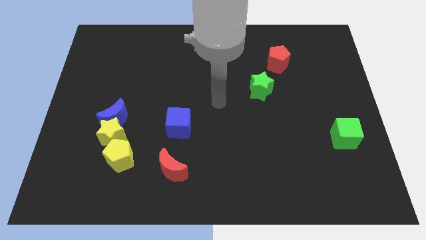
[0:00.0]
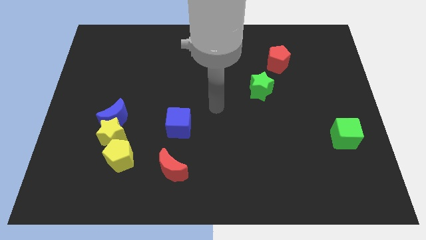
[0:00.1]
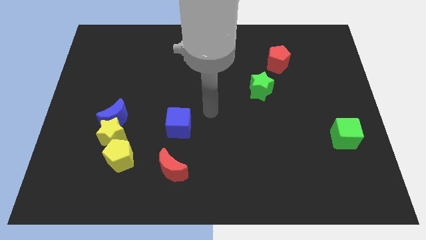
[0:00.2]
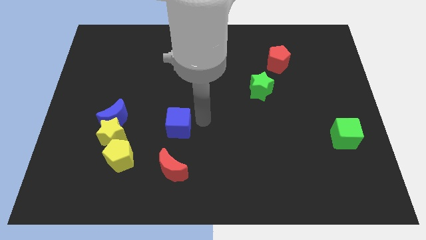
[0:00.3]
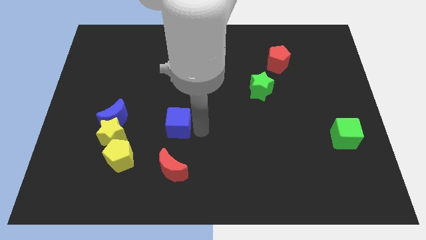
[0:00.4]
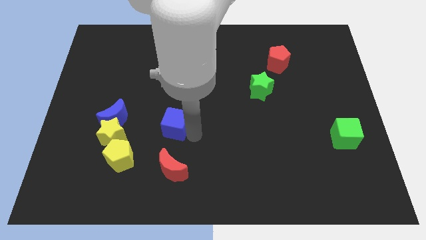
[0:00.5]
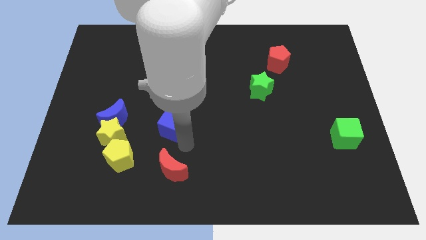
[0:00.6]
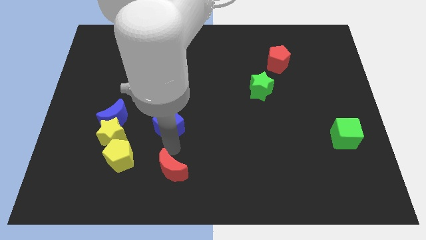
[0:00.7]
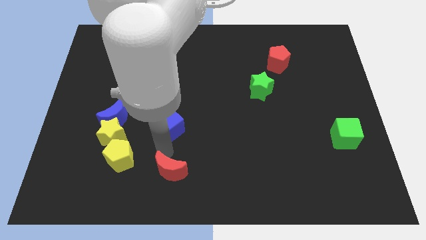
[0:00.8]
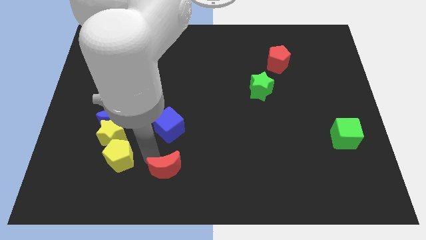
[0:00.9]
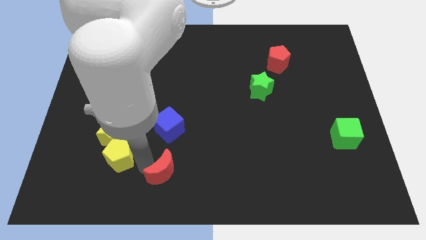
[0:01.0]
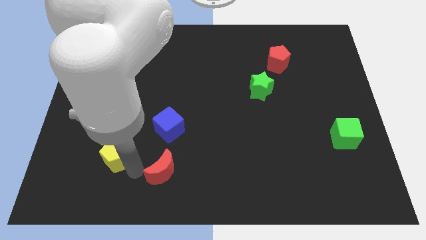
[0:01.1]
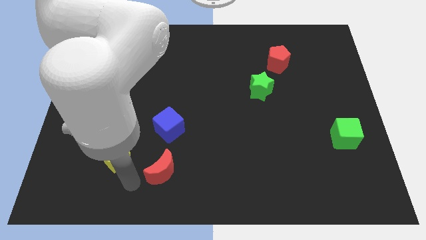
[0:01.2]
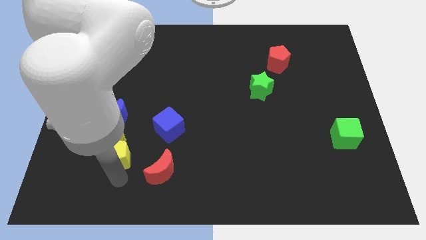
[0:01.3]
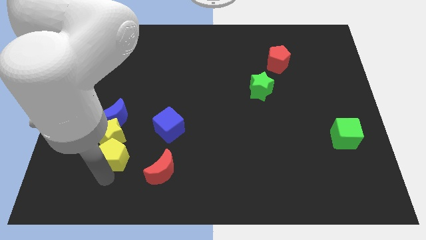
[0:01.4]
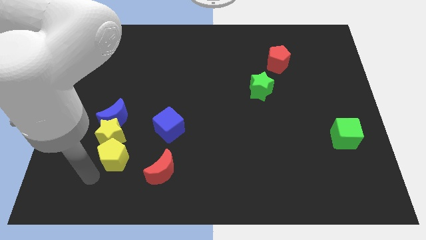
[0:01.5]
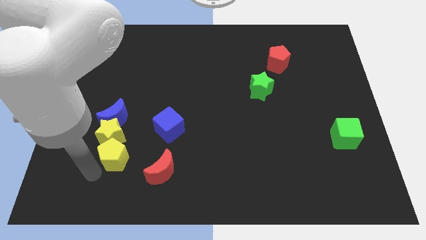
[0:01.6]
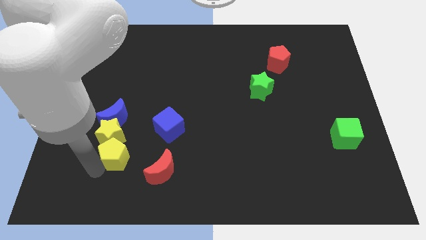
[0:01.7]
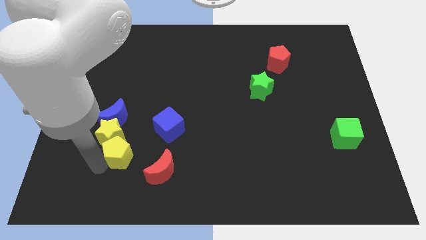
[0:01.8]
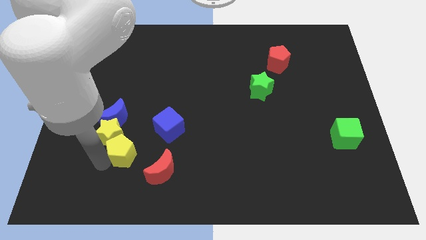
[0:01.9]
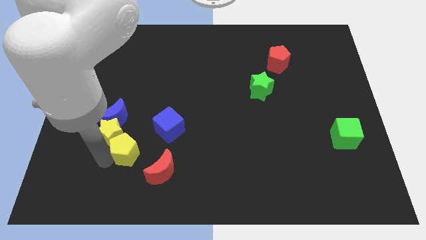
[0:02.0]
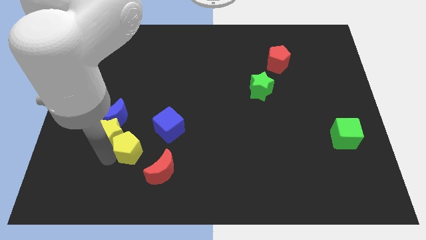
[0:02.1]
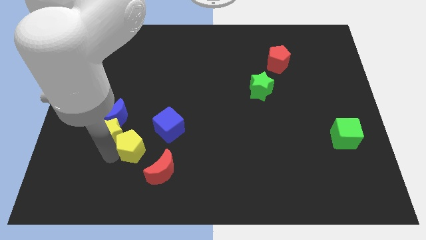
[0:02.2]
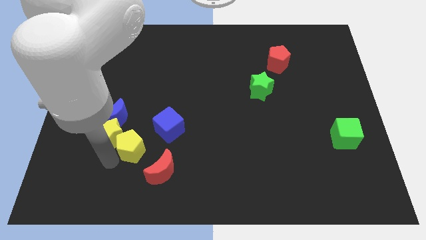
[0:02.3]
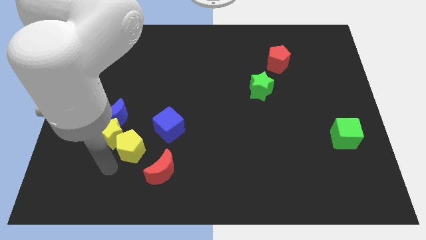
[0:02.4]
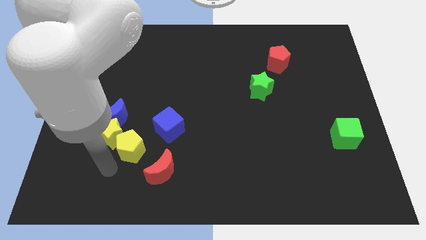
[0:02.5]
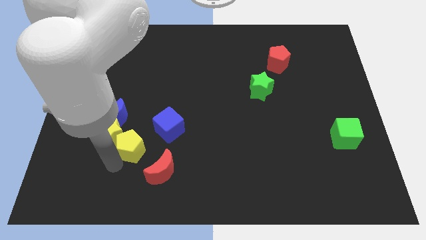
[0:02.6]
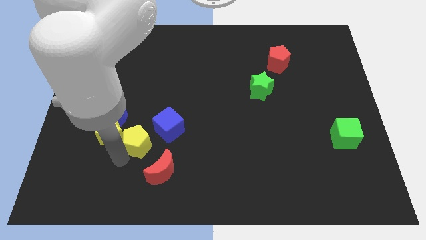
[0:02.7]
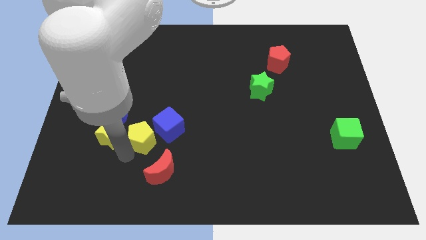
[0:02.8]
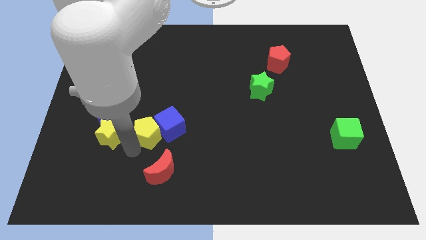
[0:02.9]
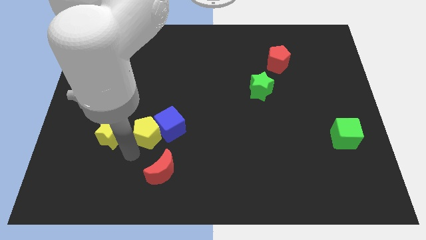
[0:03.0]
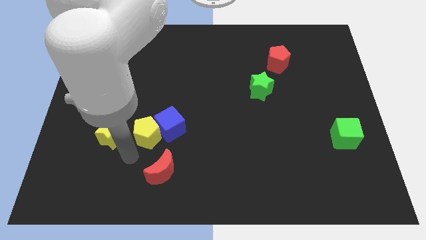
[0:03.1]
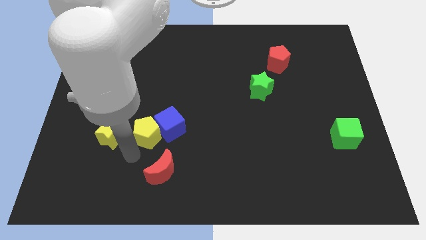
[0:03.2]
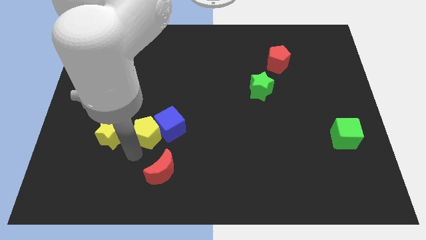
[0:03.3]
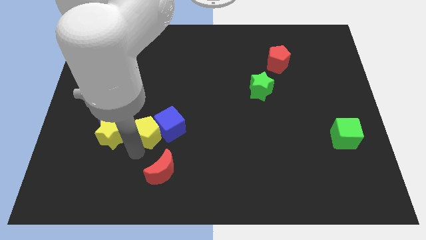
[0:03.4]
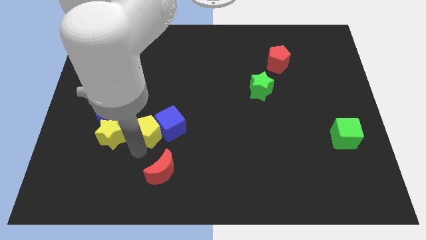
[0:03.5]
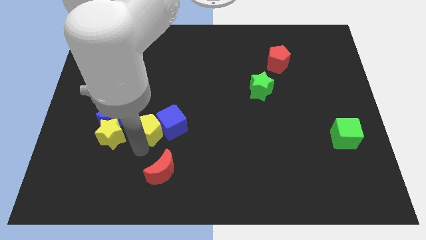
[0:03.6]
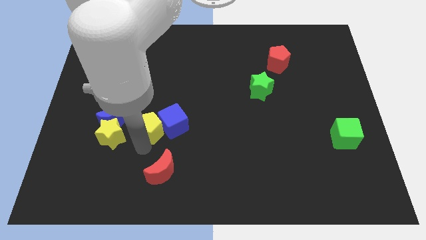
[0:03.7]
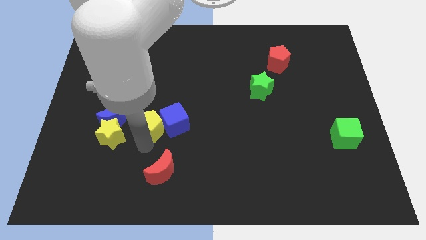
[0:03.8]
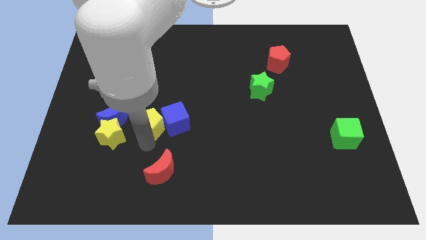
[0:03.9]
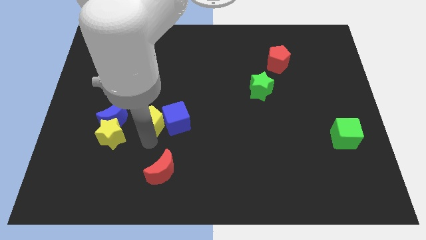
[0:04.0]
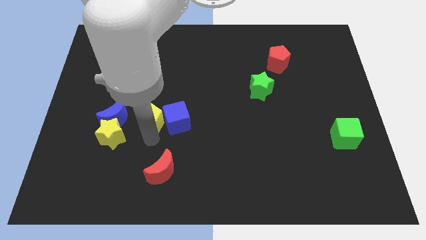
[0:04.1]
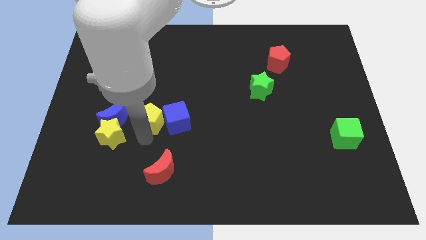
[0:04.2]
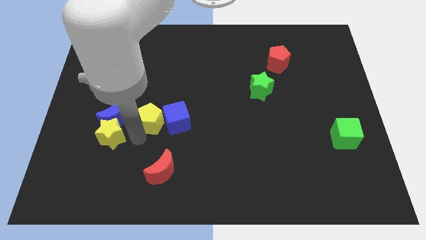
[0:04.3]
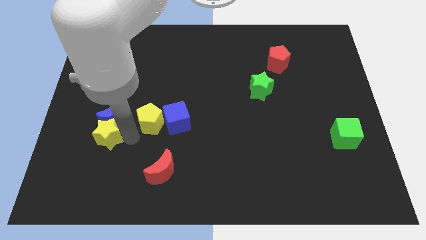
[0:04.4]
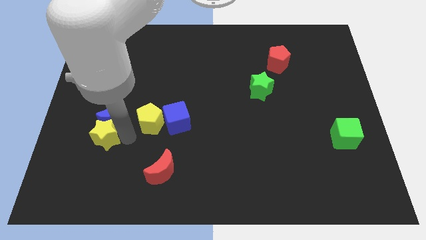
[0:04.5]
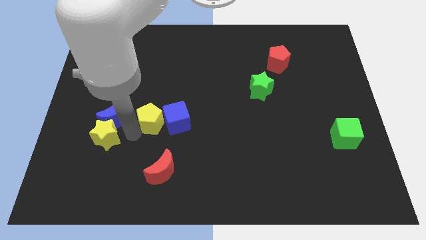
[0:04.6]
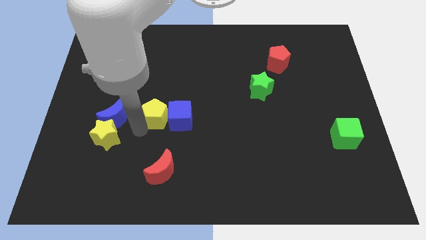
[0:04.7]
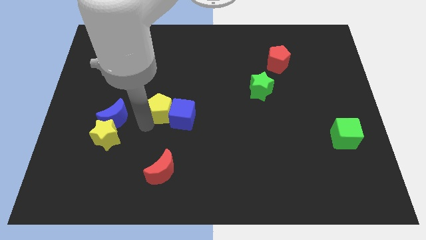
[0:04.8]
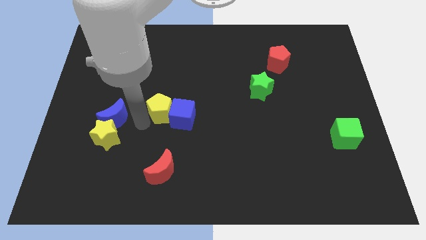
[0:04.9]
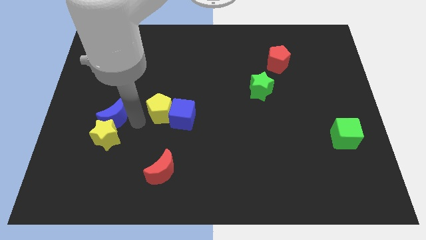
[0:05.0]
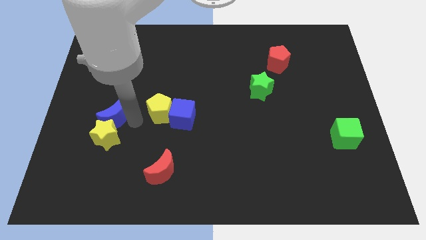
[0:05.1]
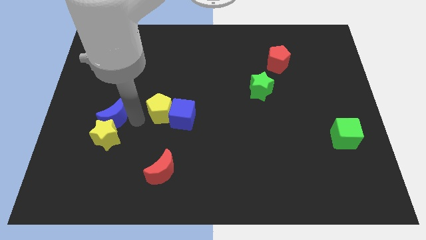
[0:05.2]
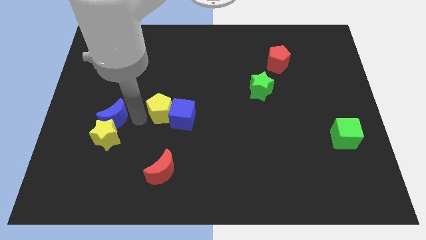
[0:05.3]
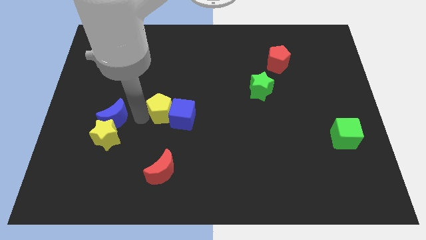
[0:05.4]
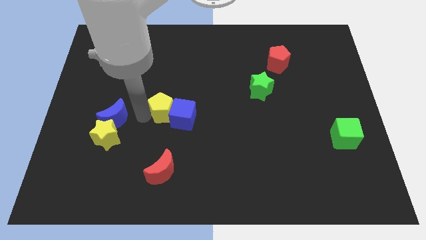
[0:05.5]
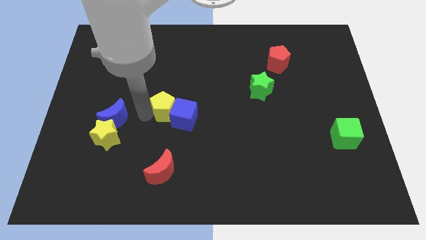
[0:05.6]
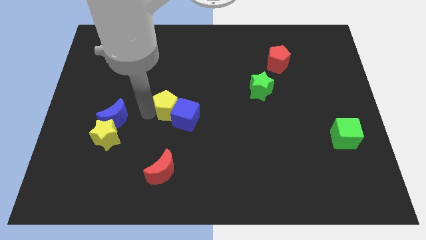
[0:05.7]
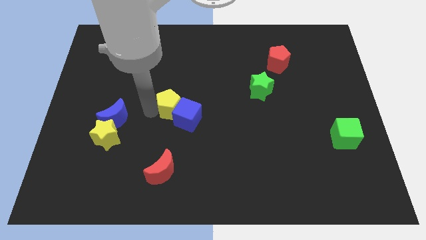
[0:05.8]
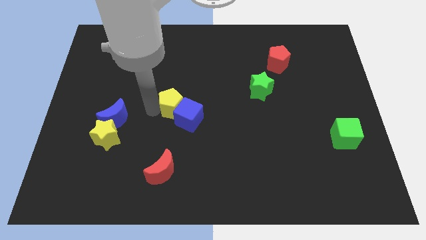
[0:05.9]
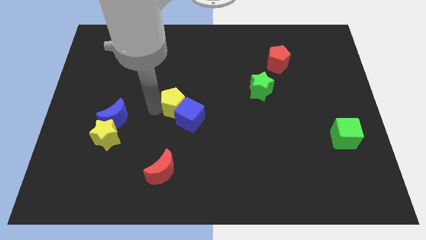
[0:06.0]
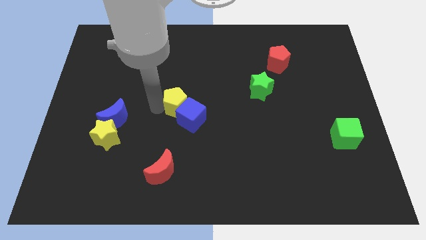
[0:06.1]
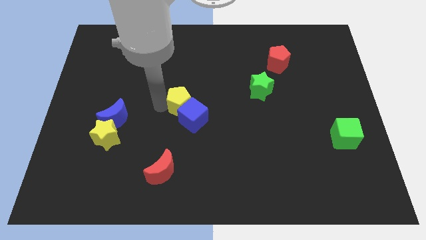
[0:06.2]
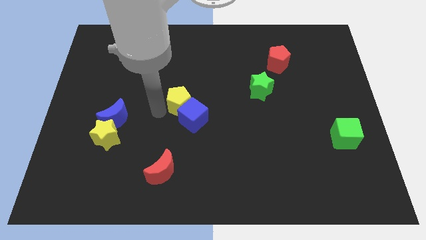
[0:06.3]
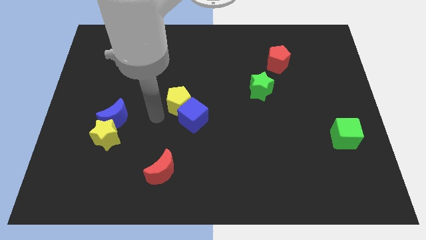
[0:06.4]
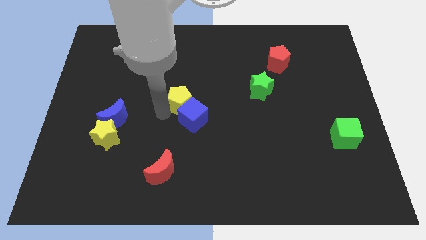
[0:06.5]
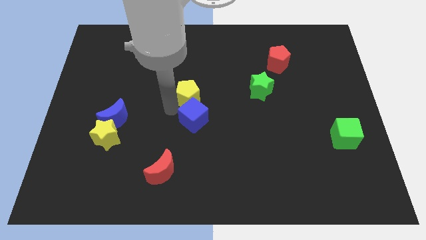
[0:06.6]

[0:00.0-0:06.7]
push the yellow pentagon upwards and right diagonally

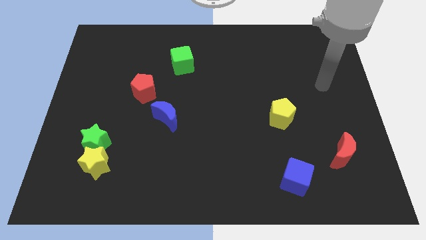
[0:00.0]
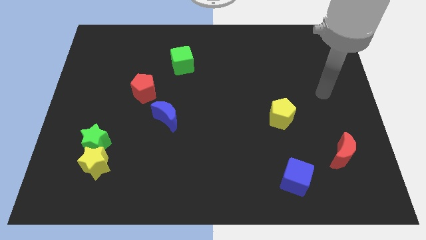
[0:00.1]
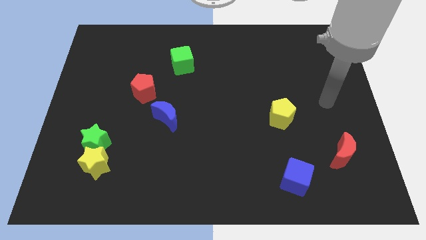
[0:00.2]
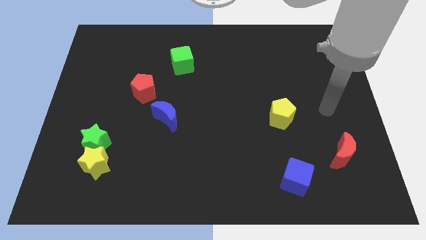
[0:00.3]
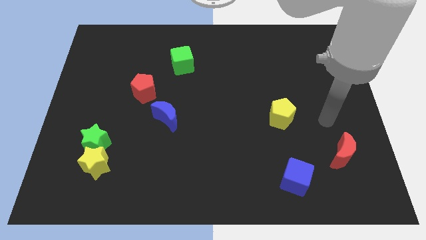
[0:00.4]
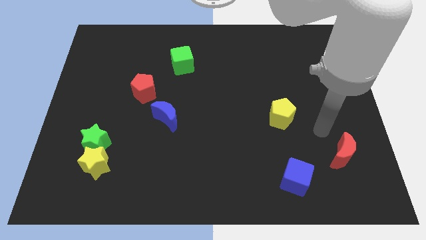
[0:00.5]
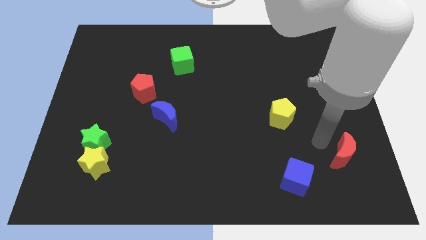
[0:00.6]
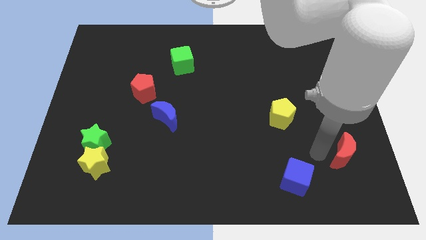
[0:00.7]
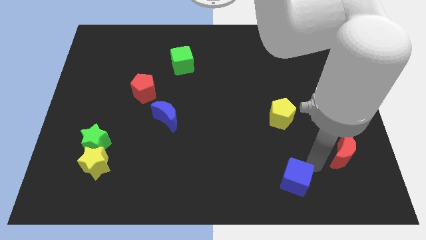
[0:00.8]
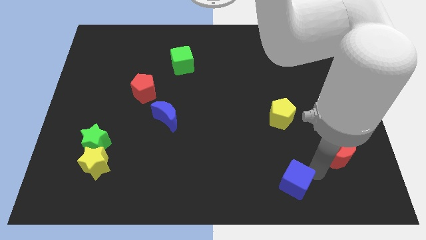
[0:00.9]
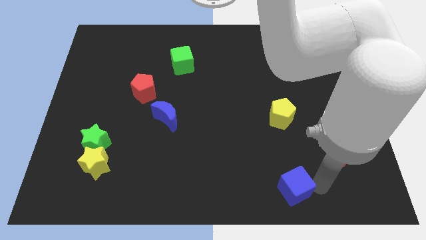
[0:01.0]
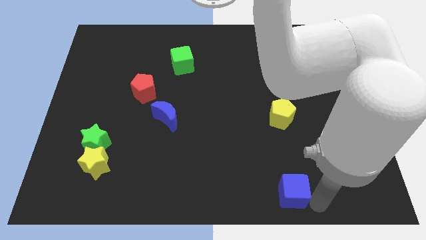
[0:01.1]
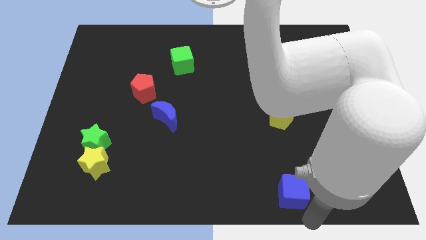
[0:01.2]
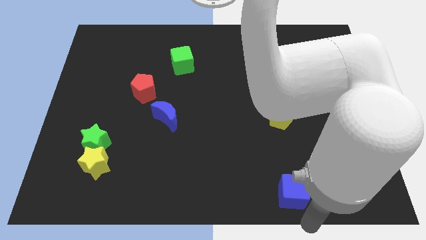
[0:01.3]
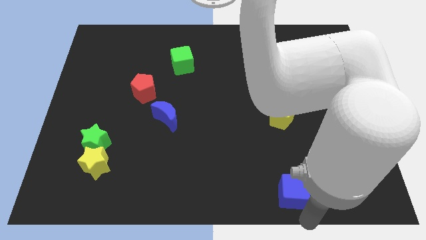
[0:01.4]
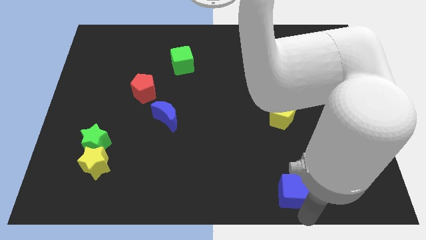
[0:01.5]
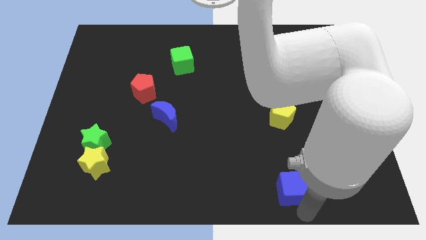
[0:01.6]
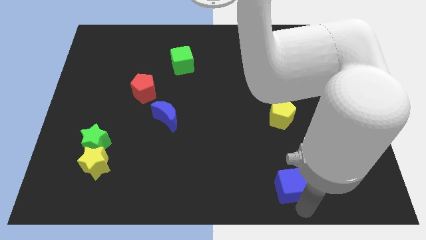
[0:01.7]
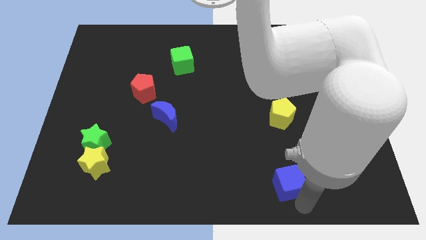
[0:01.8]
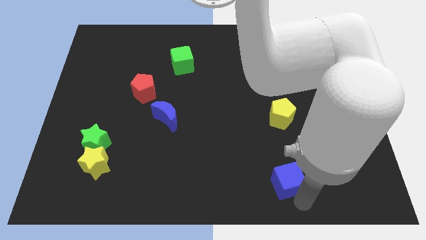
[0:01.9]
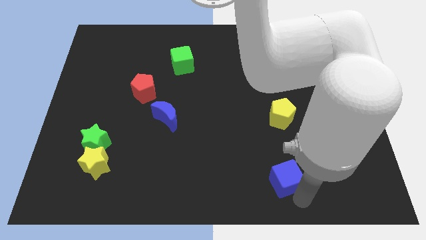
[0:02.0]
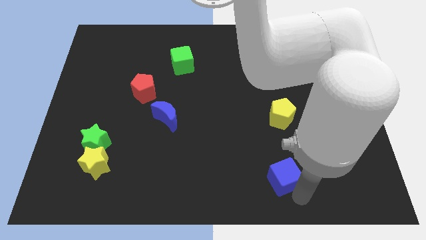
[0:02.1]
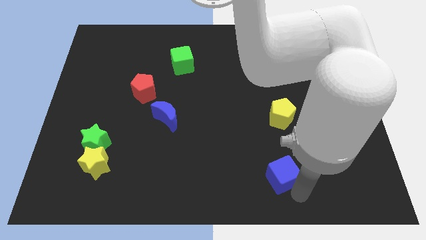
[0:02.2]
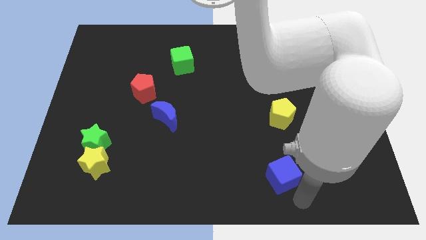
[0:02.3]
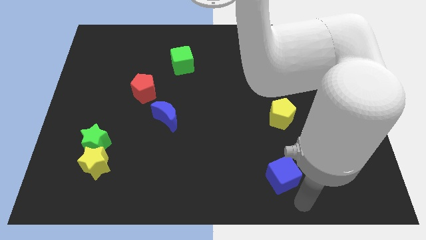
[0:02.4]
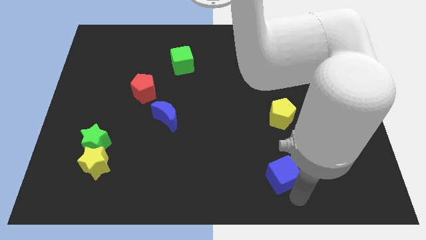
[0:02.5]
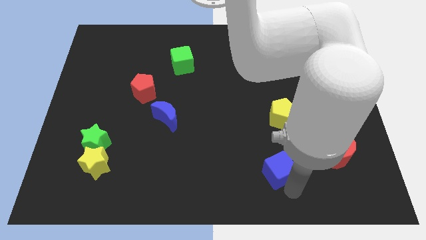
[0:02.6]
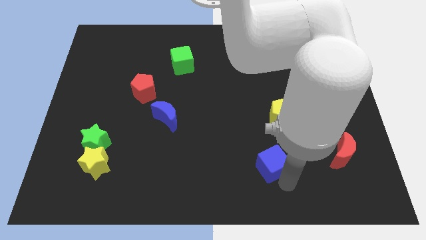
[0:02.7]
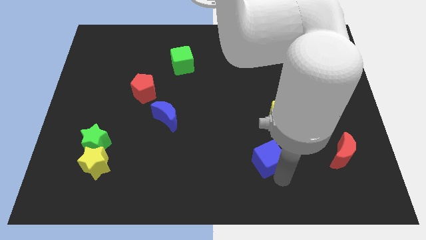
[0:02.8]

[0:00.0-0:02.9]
move the blue cube diagonally upwards and left somewhat
